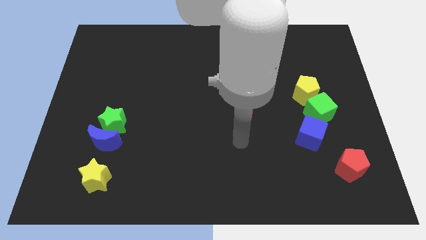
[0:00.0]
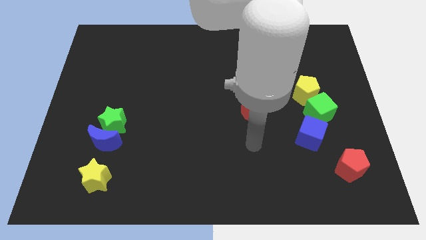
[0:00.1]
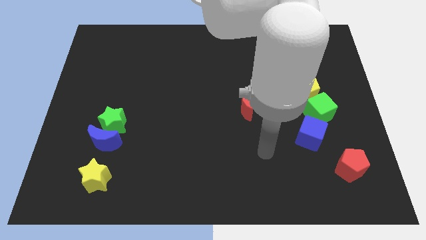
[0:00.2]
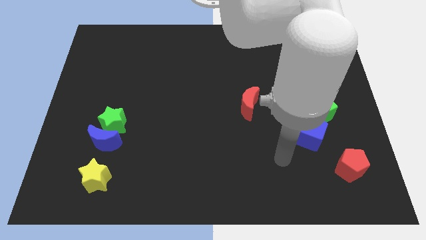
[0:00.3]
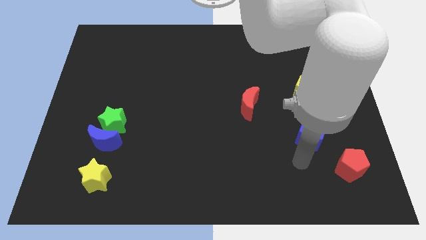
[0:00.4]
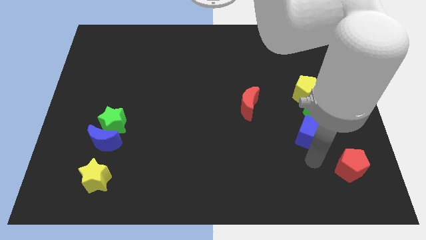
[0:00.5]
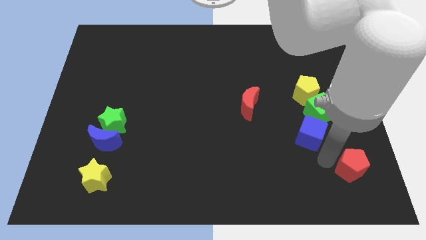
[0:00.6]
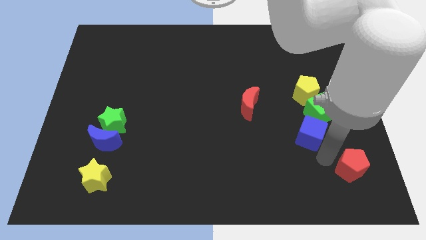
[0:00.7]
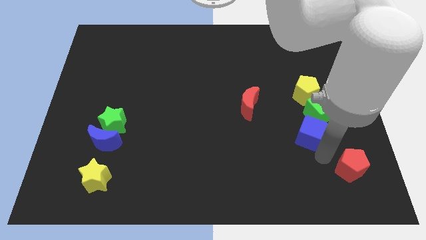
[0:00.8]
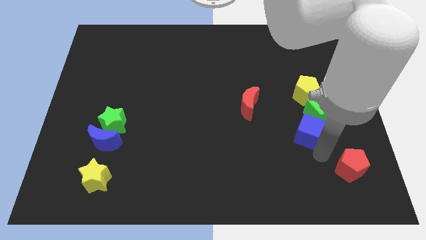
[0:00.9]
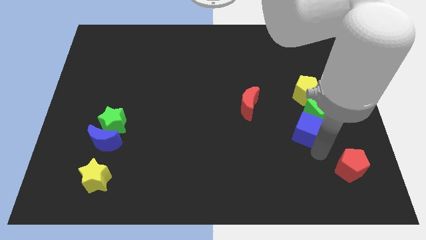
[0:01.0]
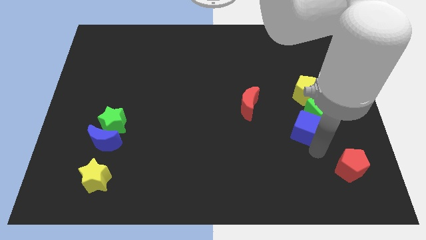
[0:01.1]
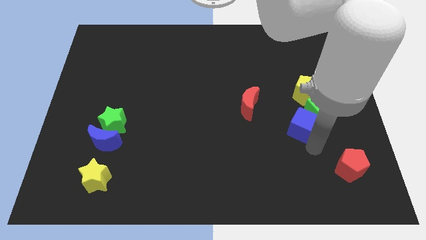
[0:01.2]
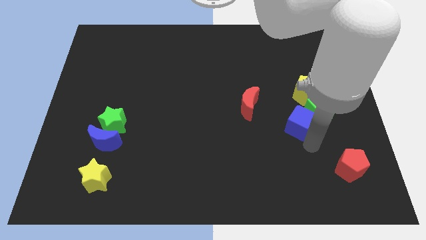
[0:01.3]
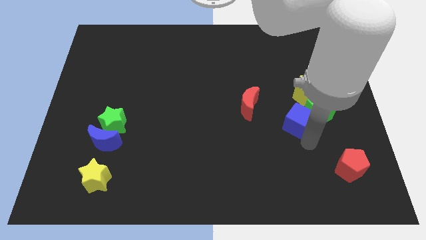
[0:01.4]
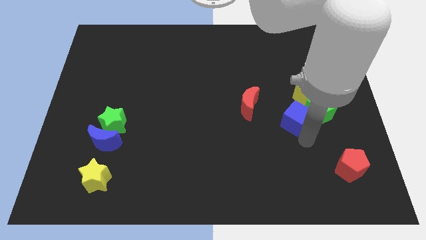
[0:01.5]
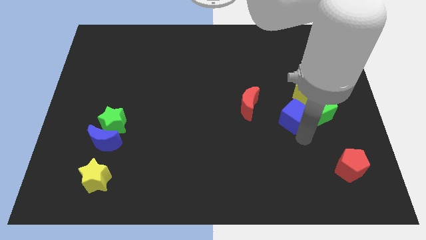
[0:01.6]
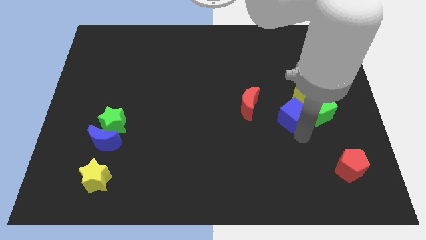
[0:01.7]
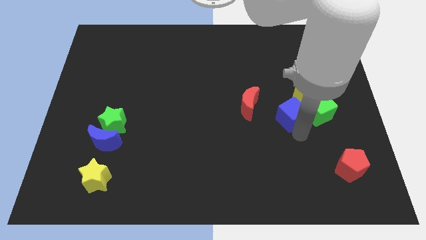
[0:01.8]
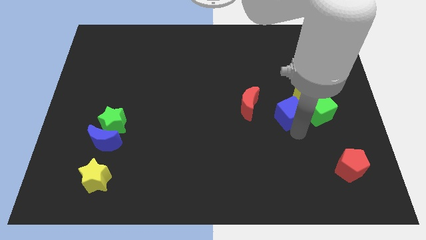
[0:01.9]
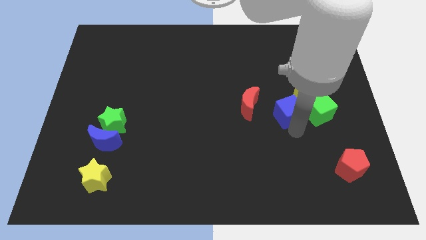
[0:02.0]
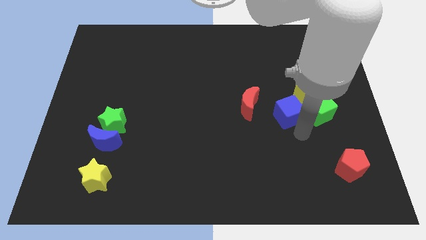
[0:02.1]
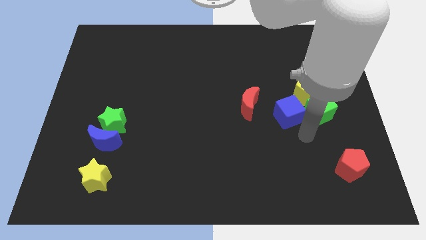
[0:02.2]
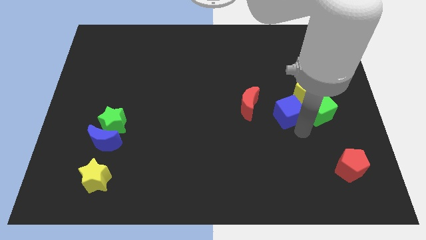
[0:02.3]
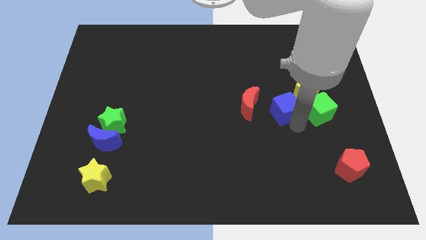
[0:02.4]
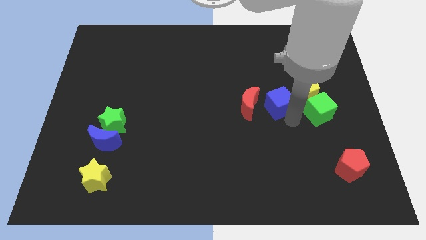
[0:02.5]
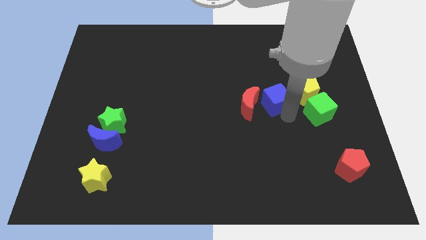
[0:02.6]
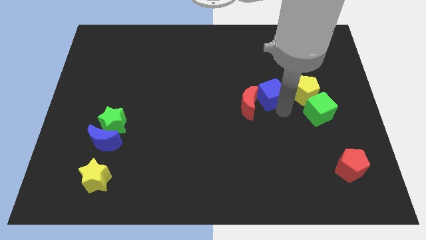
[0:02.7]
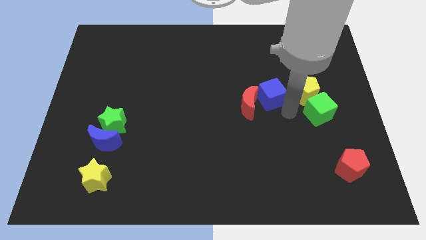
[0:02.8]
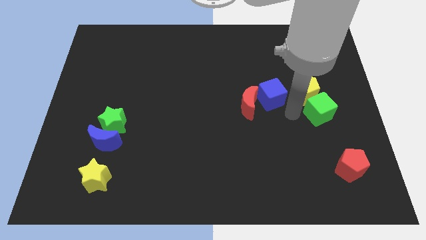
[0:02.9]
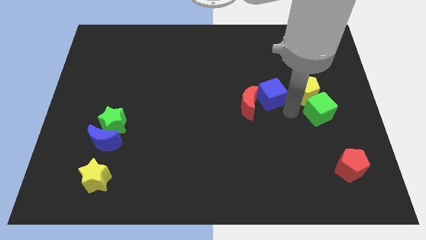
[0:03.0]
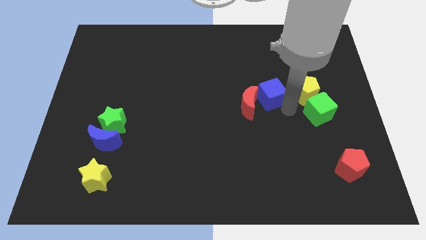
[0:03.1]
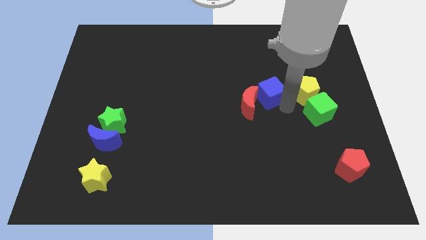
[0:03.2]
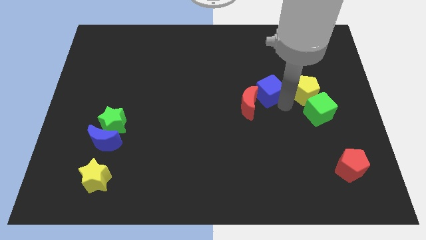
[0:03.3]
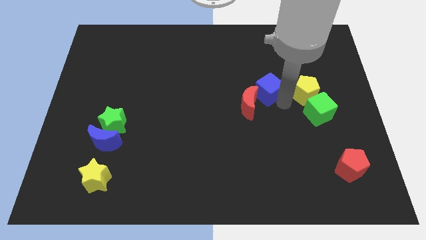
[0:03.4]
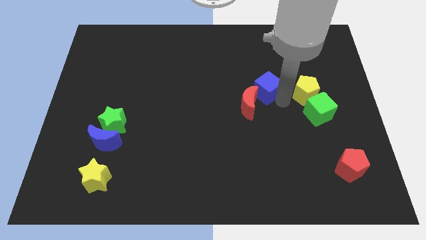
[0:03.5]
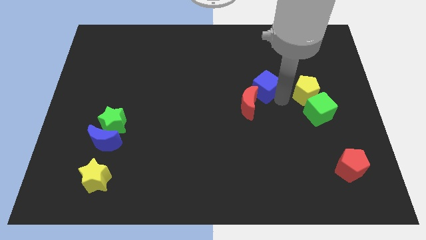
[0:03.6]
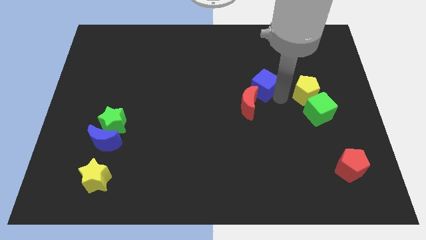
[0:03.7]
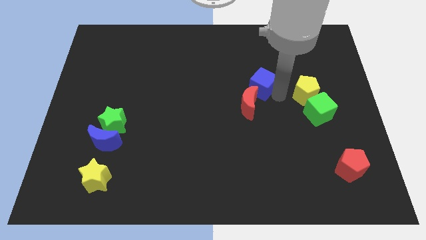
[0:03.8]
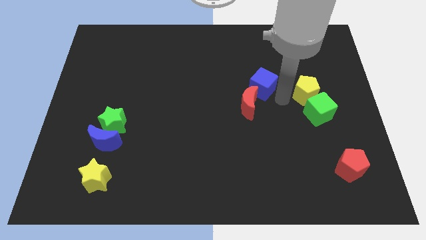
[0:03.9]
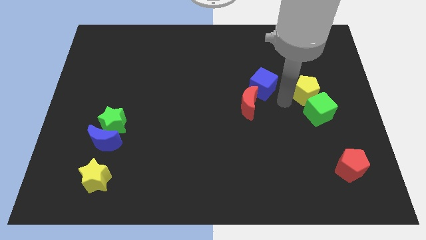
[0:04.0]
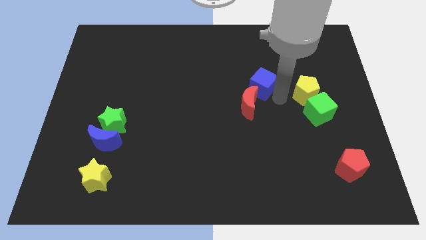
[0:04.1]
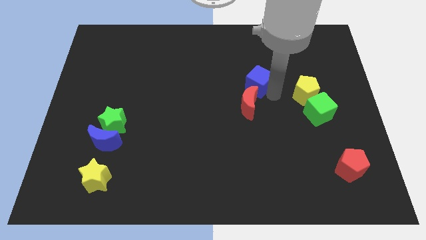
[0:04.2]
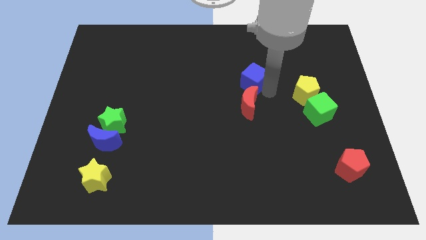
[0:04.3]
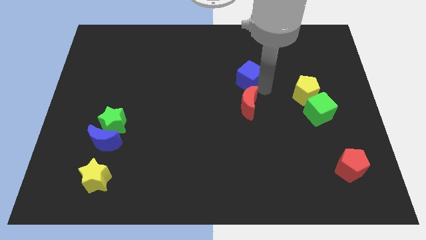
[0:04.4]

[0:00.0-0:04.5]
slide the blue cube up and then to the left

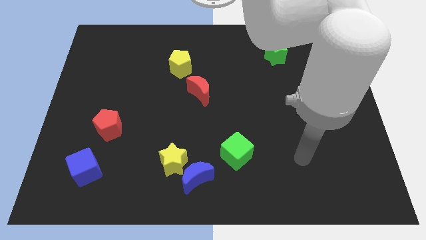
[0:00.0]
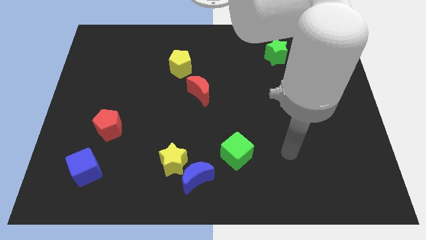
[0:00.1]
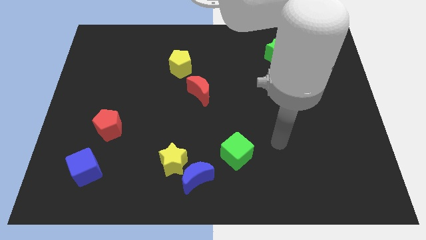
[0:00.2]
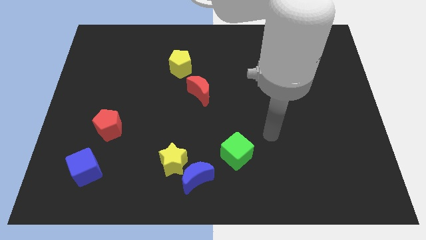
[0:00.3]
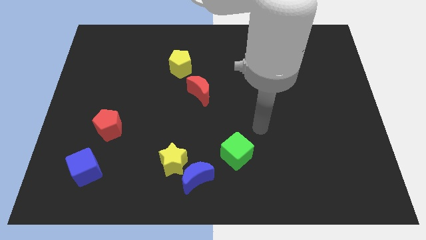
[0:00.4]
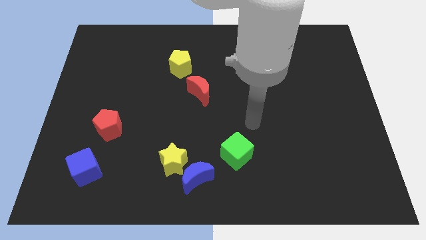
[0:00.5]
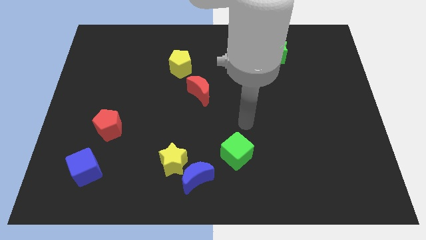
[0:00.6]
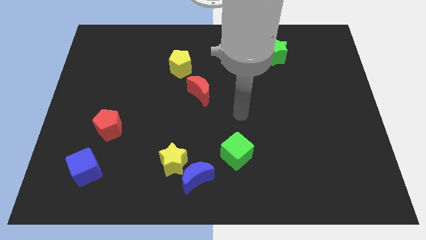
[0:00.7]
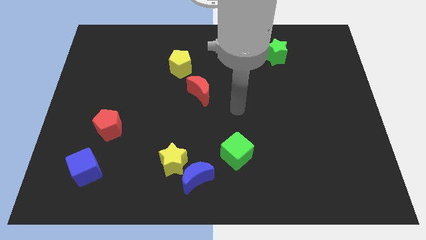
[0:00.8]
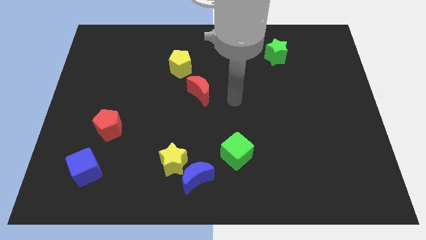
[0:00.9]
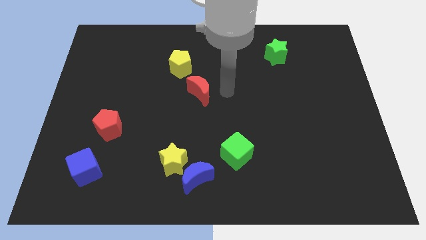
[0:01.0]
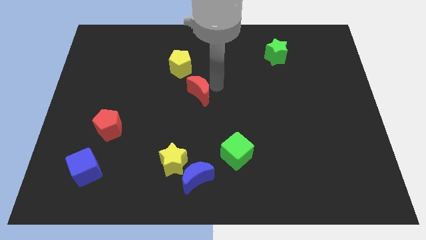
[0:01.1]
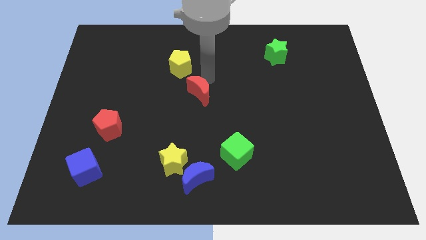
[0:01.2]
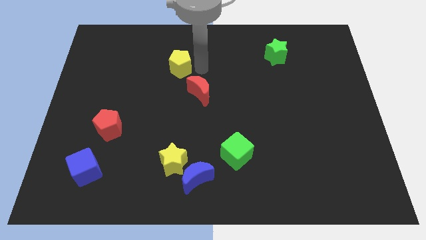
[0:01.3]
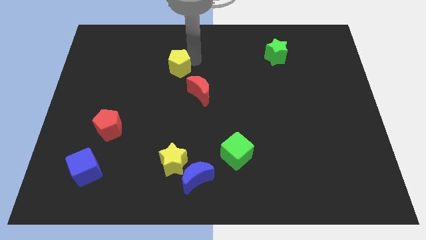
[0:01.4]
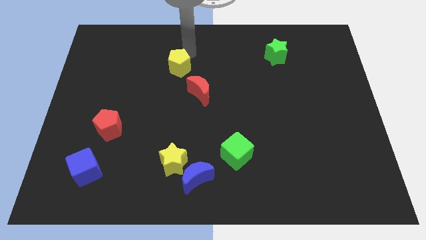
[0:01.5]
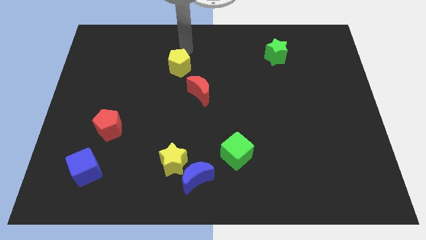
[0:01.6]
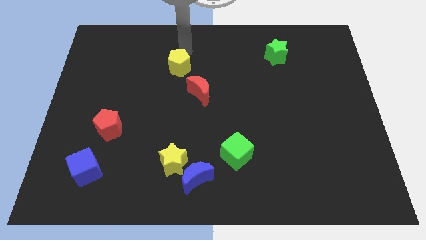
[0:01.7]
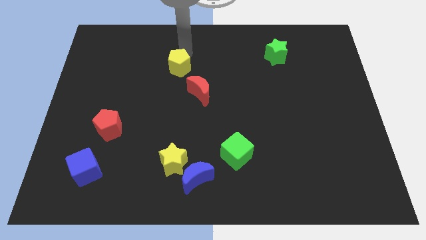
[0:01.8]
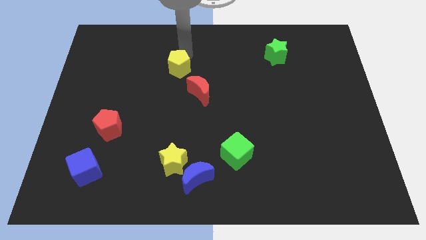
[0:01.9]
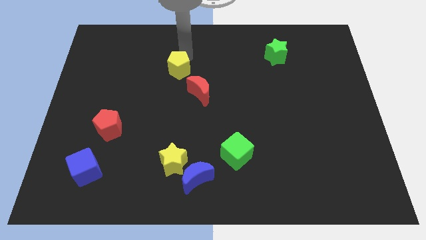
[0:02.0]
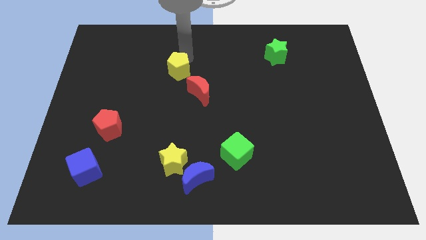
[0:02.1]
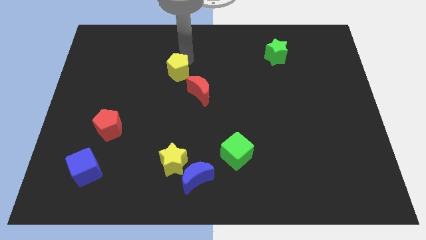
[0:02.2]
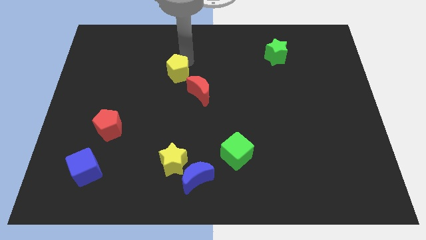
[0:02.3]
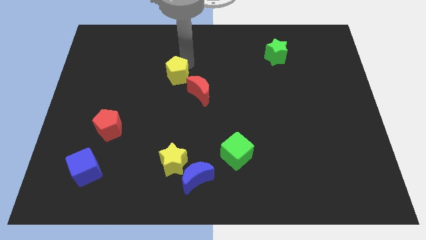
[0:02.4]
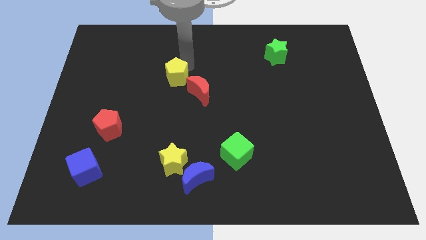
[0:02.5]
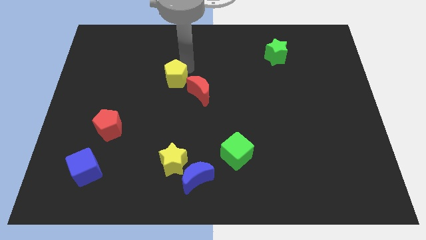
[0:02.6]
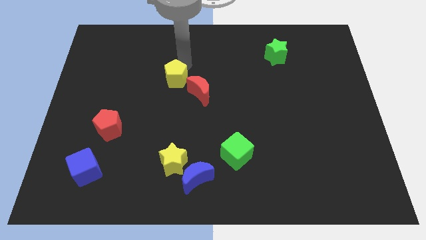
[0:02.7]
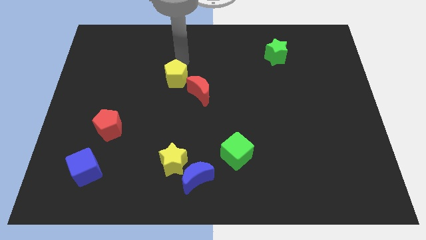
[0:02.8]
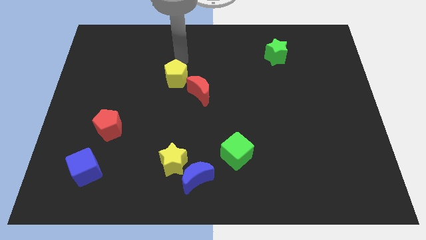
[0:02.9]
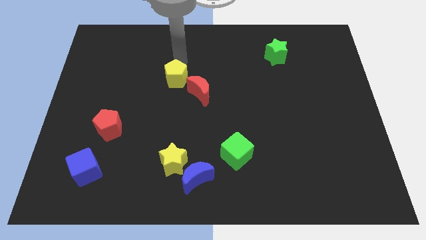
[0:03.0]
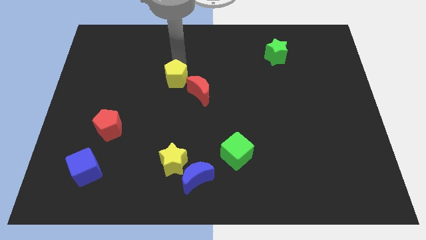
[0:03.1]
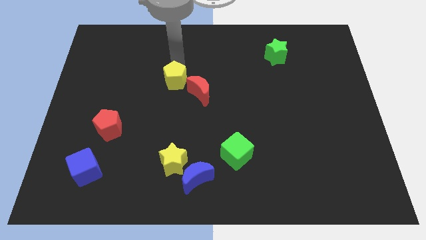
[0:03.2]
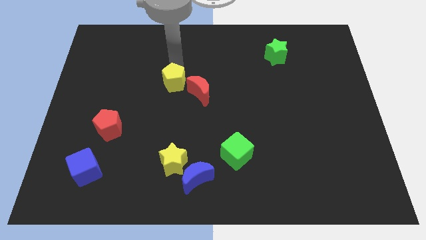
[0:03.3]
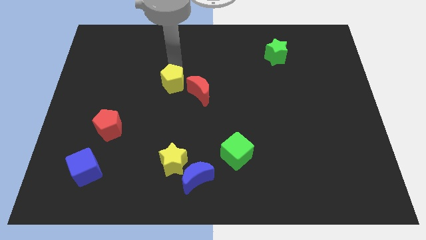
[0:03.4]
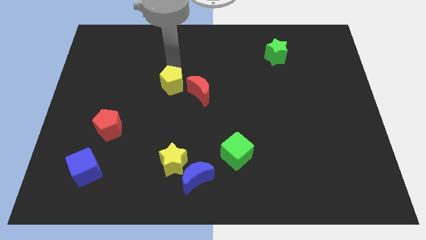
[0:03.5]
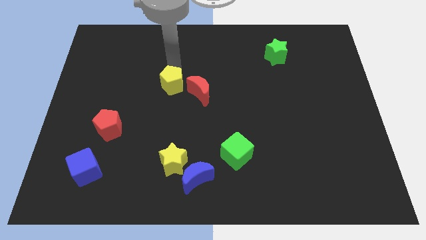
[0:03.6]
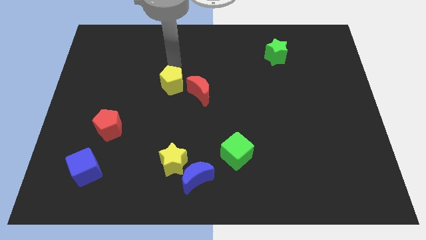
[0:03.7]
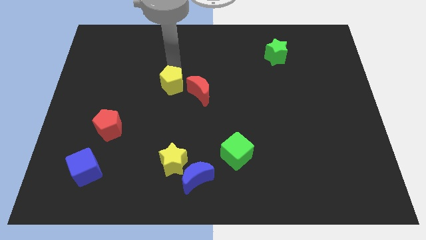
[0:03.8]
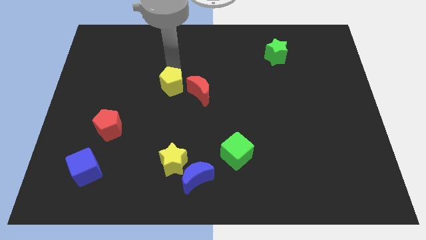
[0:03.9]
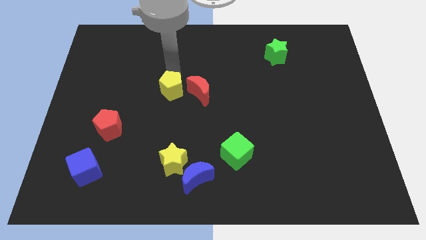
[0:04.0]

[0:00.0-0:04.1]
push the yellow pentagon a little bit downwards
